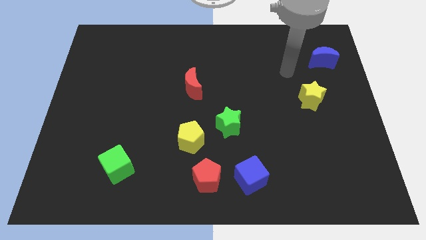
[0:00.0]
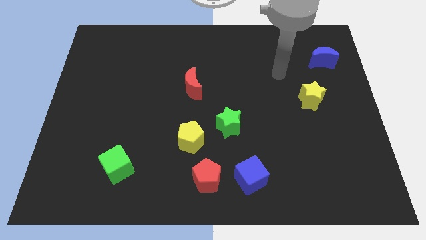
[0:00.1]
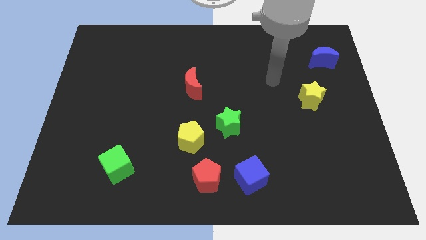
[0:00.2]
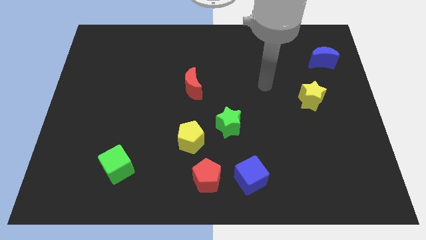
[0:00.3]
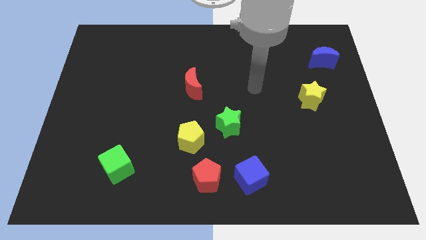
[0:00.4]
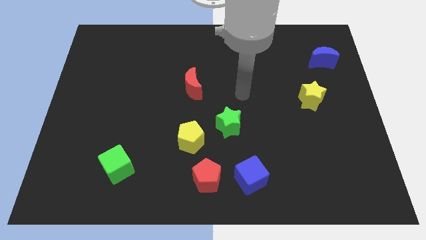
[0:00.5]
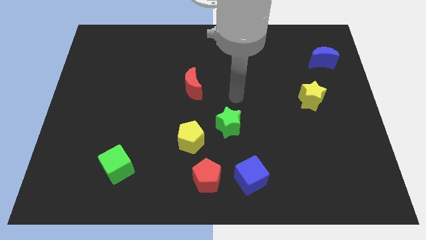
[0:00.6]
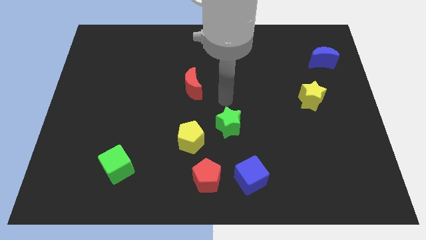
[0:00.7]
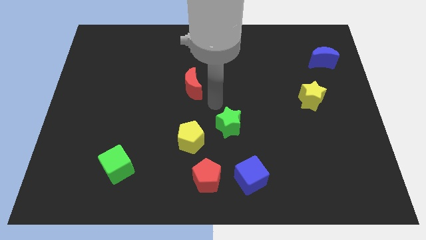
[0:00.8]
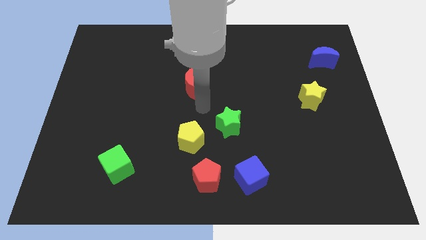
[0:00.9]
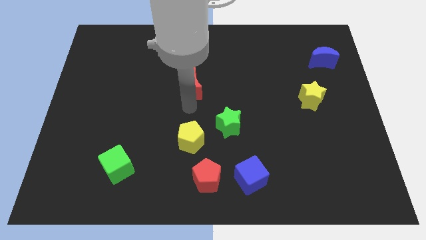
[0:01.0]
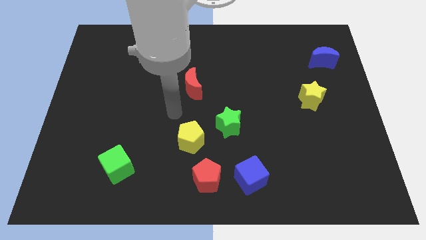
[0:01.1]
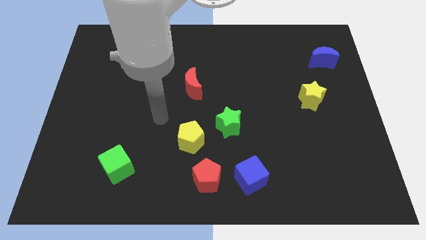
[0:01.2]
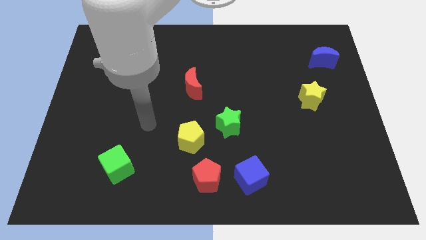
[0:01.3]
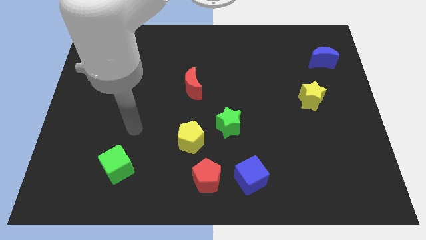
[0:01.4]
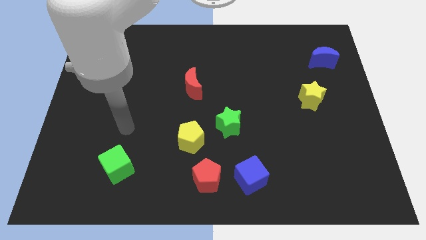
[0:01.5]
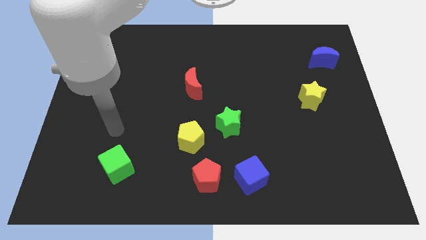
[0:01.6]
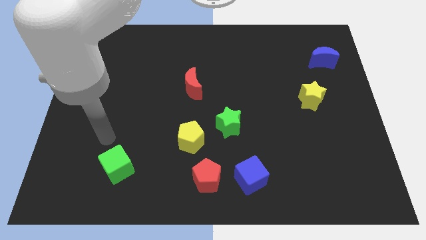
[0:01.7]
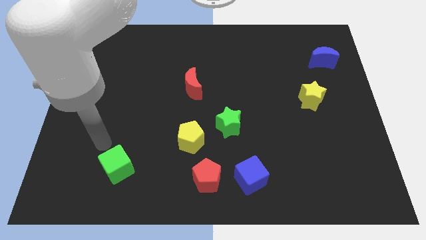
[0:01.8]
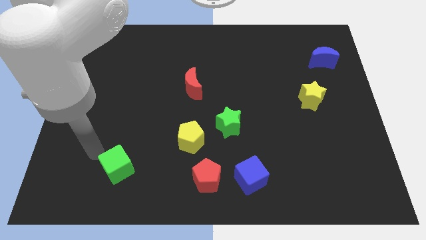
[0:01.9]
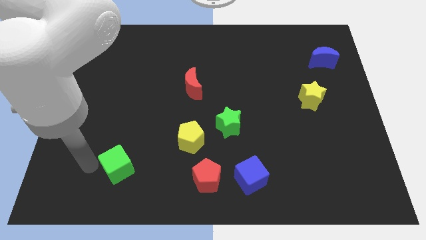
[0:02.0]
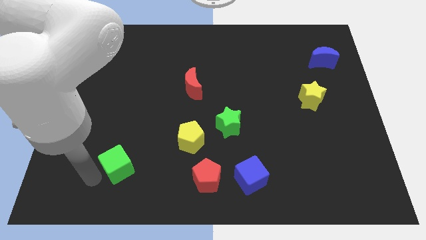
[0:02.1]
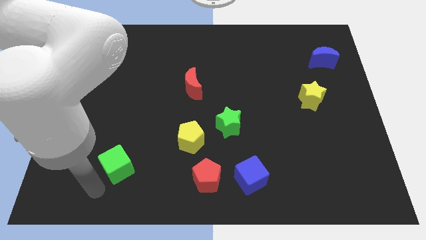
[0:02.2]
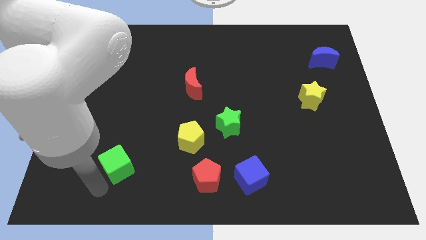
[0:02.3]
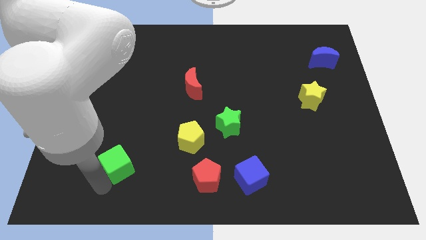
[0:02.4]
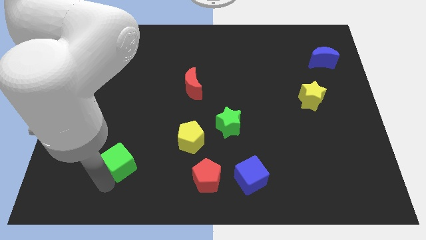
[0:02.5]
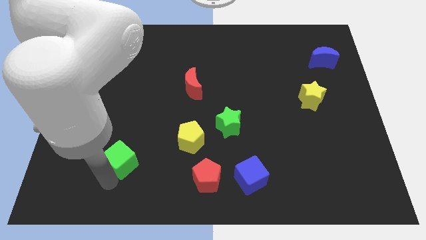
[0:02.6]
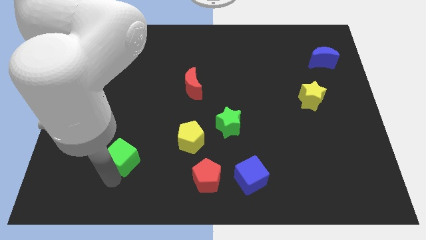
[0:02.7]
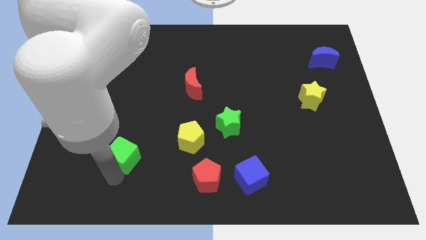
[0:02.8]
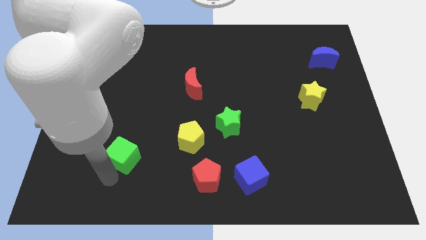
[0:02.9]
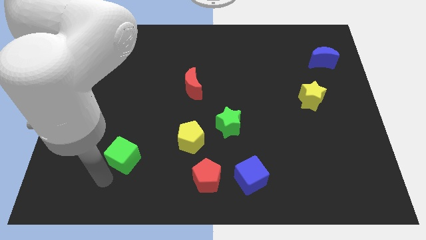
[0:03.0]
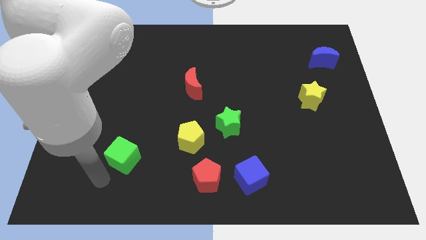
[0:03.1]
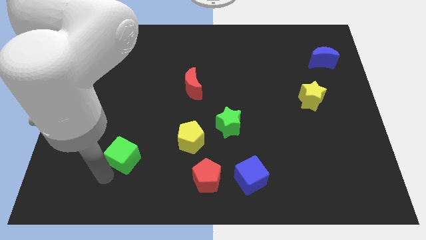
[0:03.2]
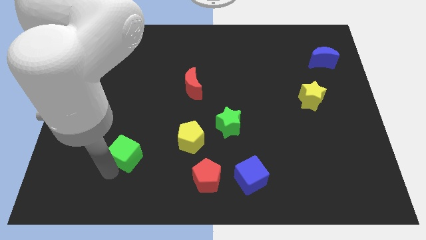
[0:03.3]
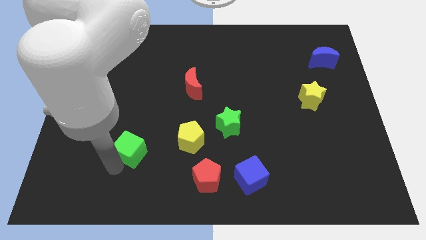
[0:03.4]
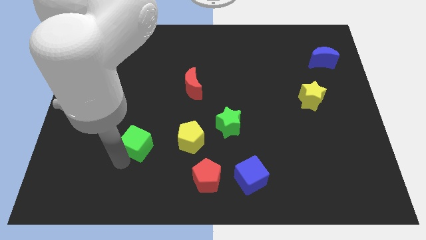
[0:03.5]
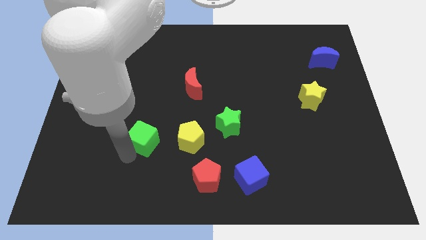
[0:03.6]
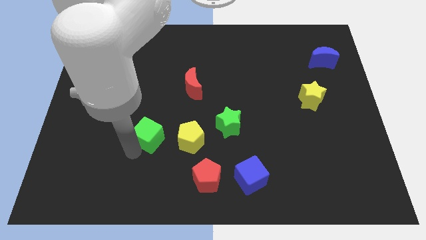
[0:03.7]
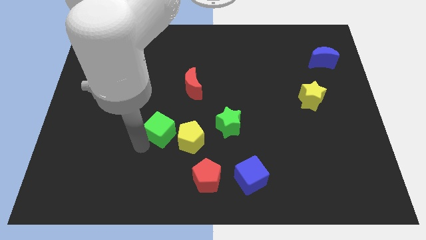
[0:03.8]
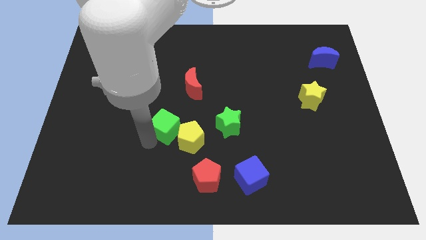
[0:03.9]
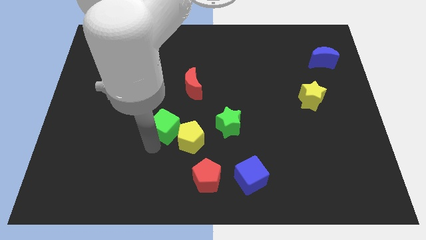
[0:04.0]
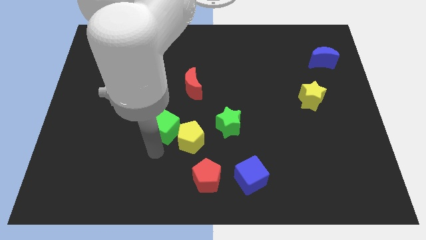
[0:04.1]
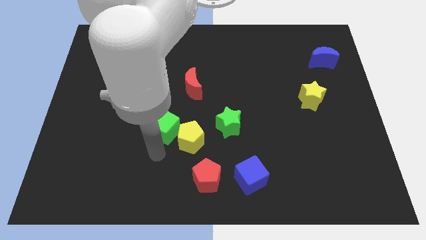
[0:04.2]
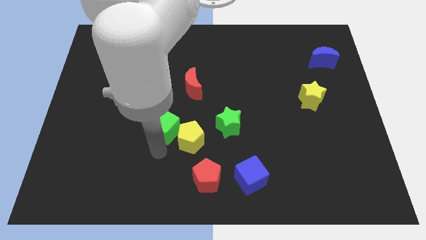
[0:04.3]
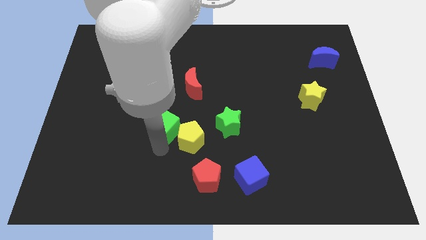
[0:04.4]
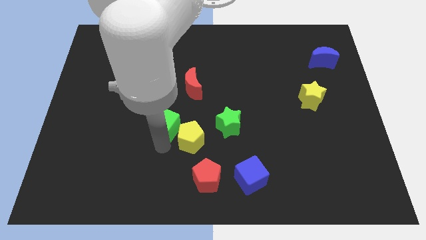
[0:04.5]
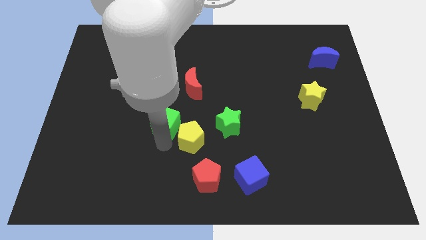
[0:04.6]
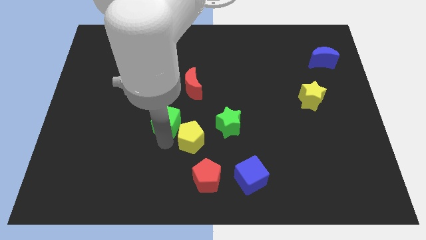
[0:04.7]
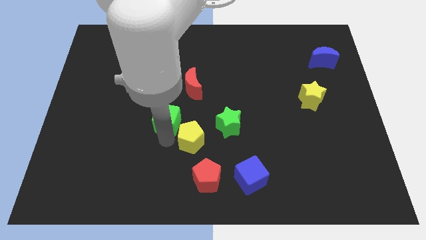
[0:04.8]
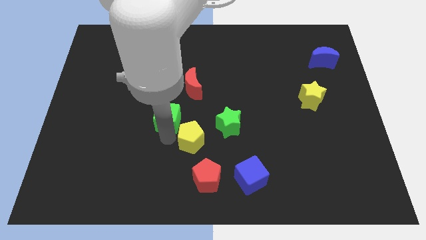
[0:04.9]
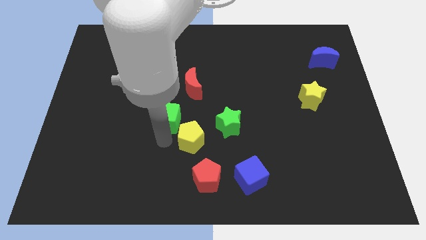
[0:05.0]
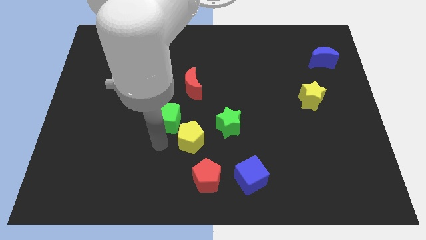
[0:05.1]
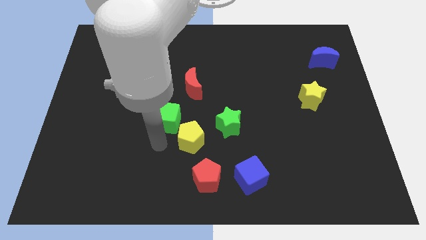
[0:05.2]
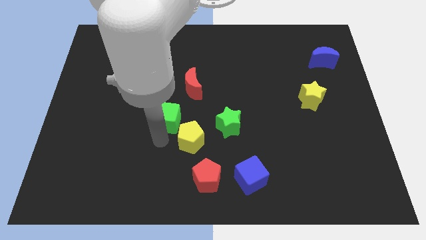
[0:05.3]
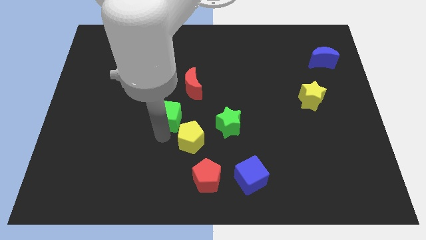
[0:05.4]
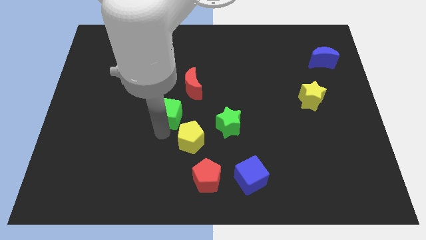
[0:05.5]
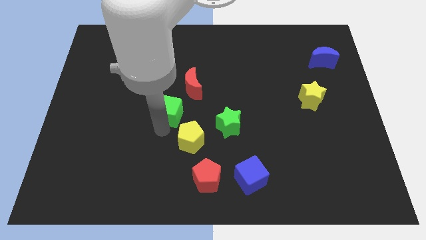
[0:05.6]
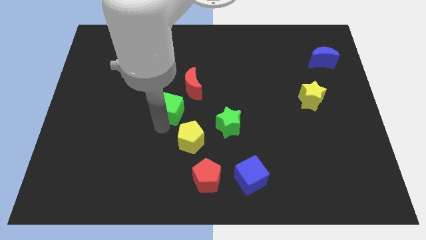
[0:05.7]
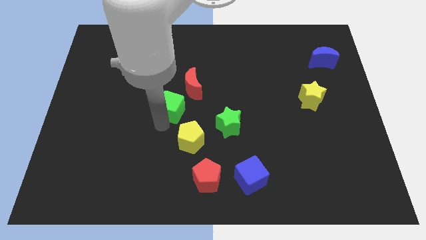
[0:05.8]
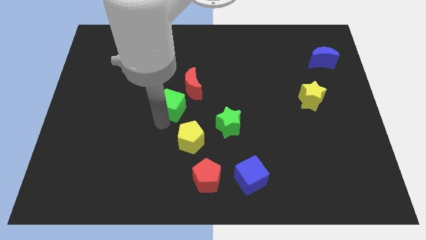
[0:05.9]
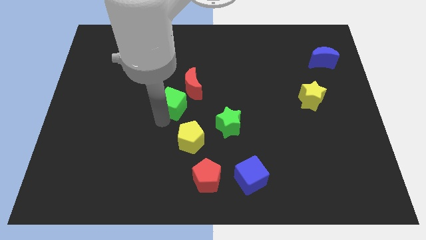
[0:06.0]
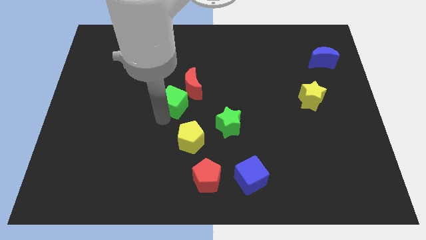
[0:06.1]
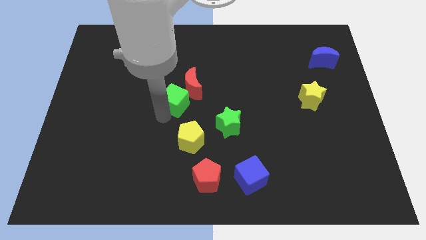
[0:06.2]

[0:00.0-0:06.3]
move the green cube towards the red moon
